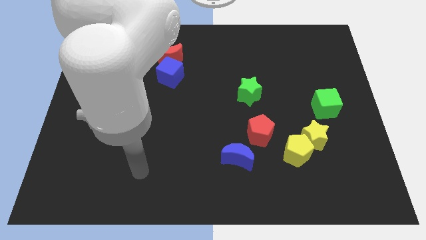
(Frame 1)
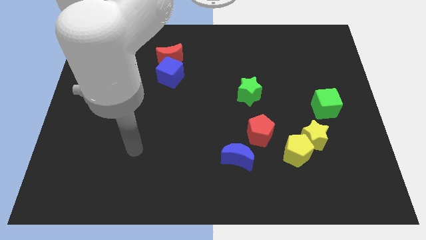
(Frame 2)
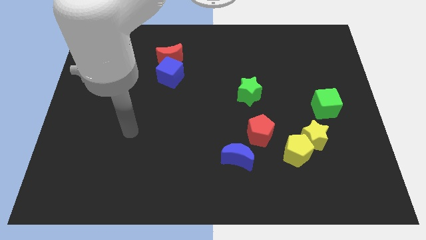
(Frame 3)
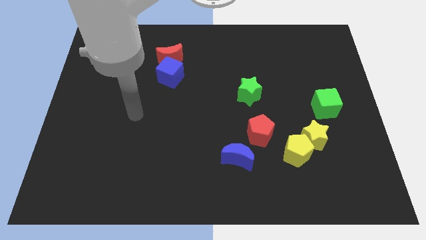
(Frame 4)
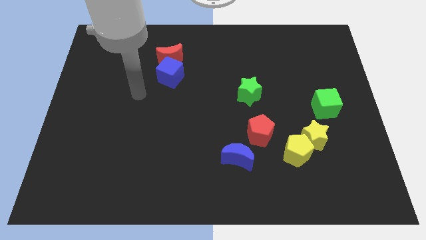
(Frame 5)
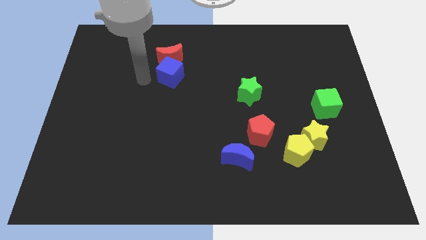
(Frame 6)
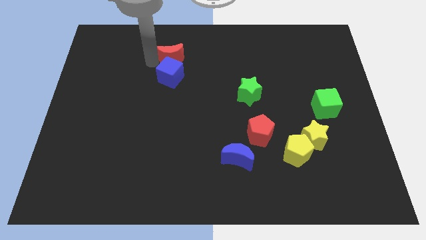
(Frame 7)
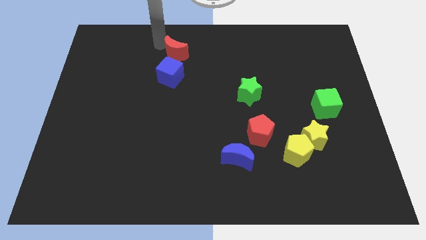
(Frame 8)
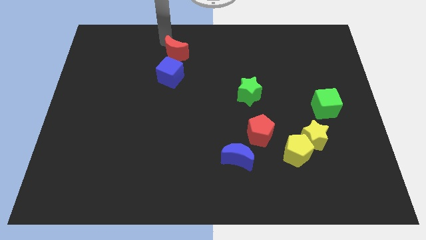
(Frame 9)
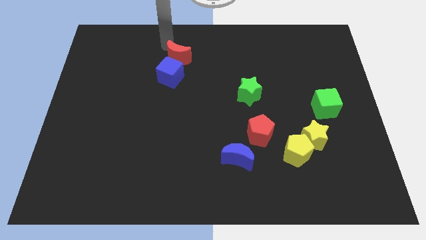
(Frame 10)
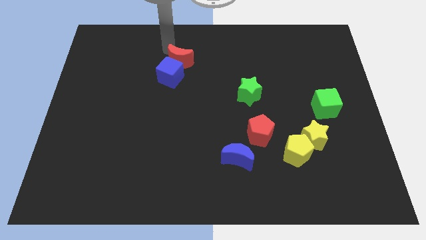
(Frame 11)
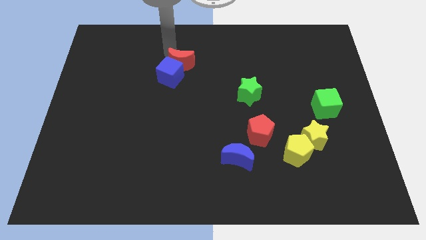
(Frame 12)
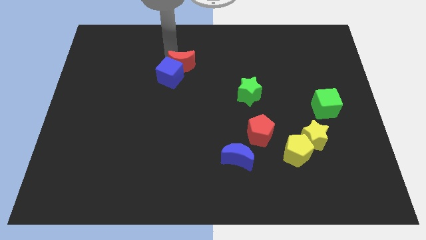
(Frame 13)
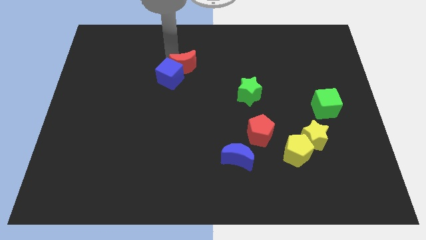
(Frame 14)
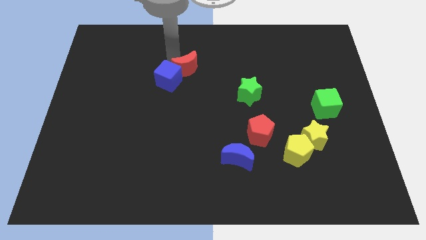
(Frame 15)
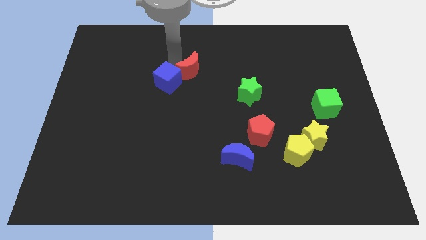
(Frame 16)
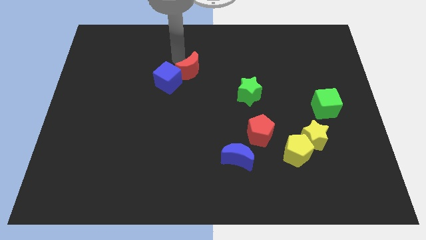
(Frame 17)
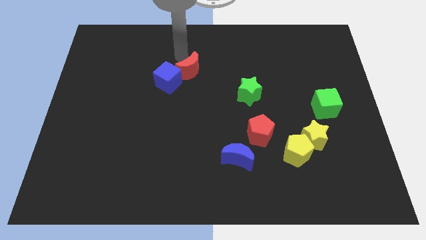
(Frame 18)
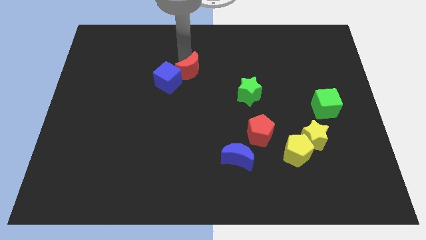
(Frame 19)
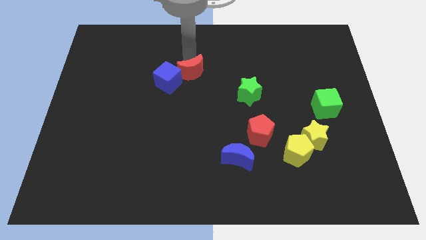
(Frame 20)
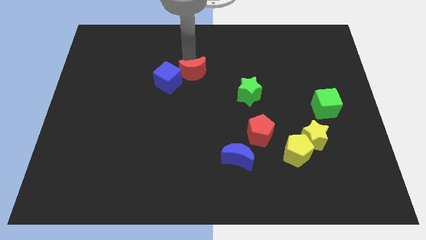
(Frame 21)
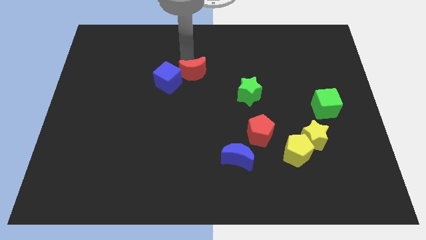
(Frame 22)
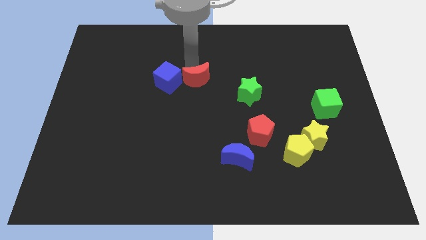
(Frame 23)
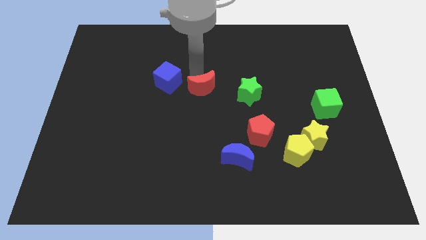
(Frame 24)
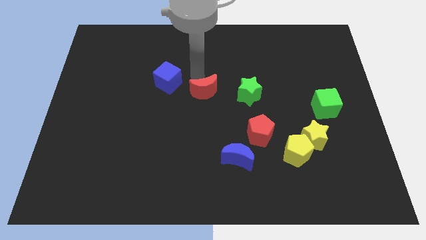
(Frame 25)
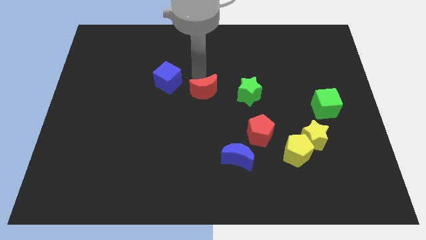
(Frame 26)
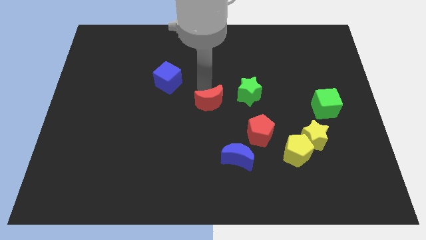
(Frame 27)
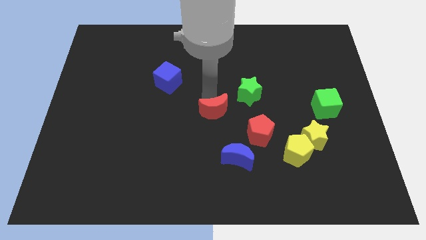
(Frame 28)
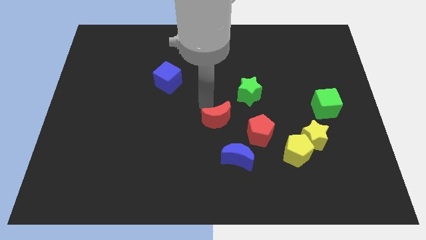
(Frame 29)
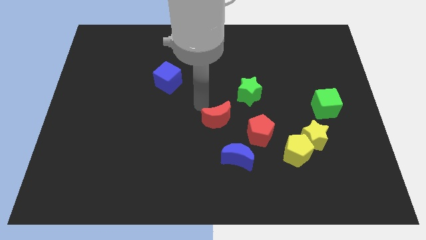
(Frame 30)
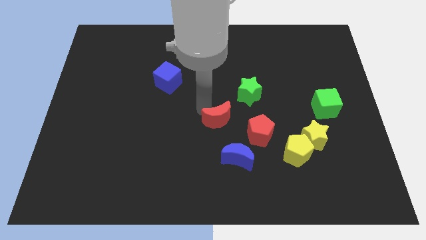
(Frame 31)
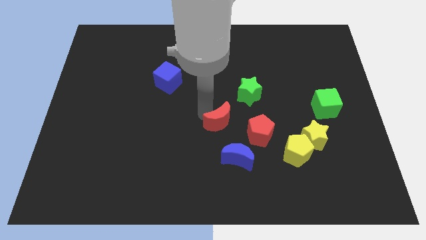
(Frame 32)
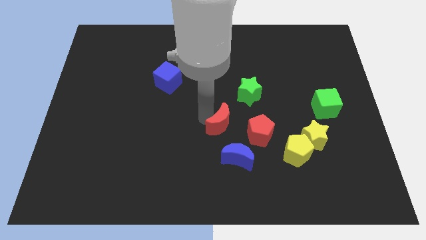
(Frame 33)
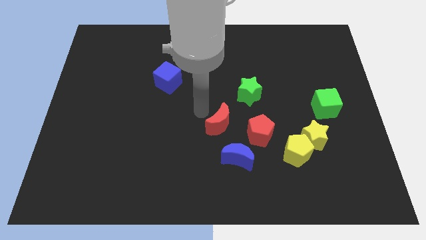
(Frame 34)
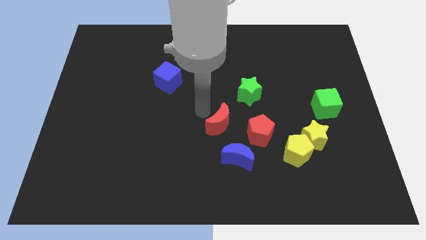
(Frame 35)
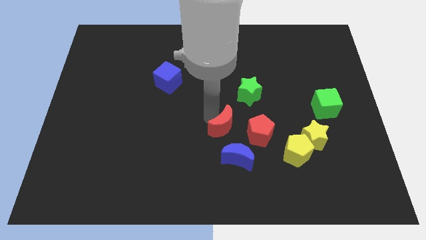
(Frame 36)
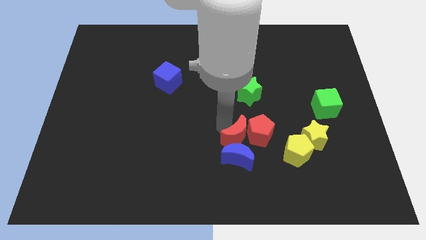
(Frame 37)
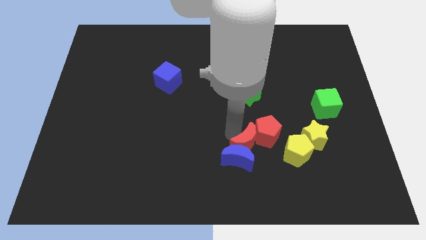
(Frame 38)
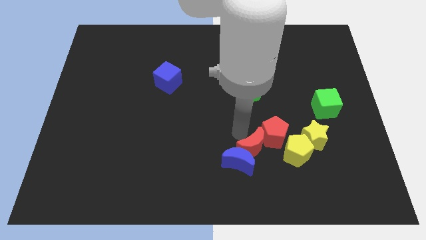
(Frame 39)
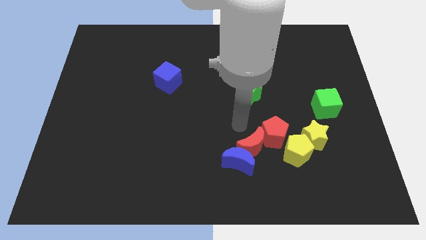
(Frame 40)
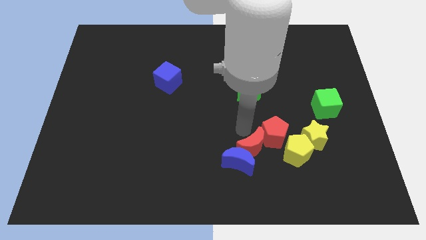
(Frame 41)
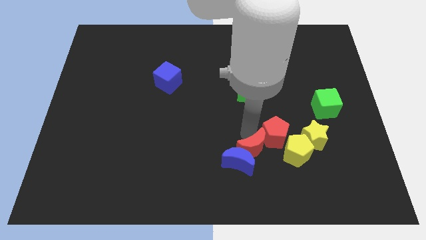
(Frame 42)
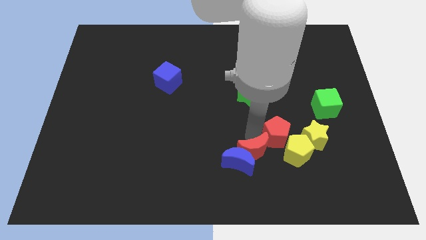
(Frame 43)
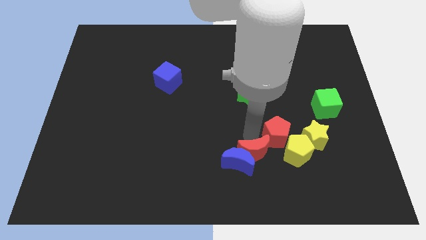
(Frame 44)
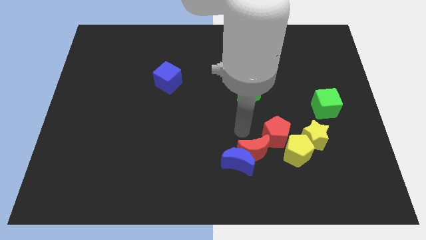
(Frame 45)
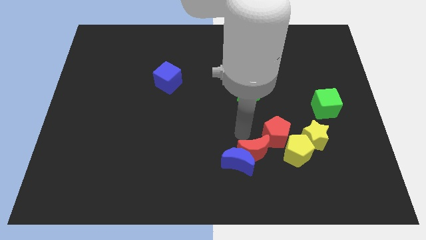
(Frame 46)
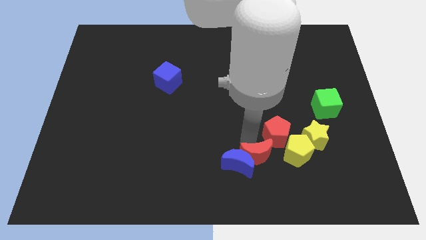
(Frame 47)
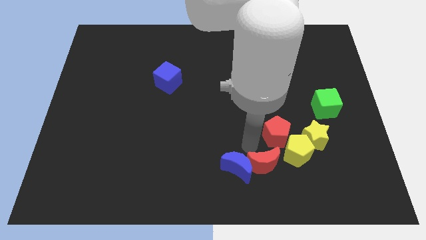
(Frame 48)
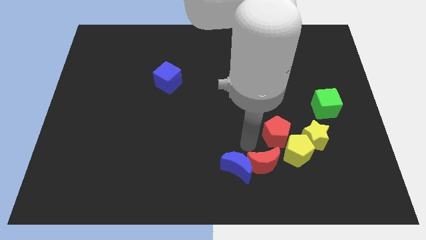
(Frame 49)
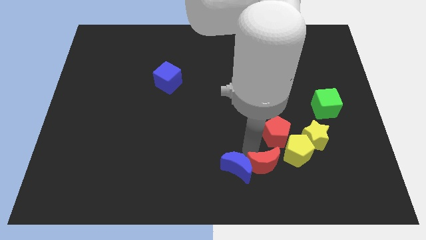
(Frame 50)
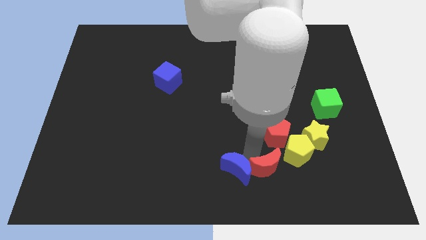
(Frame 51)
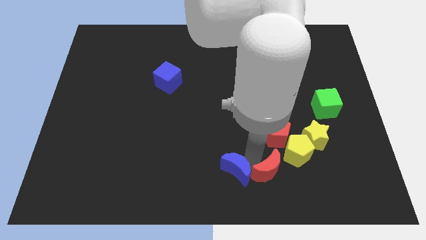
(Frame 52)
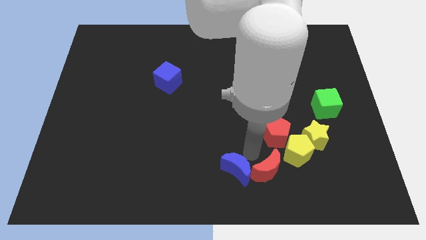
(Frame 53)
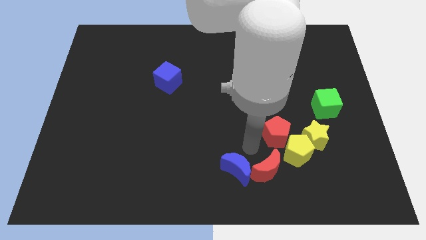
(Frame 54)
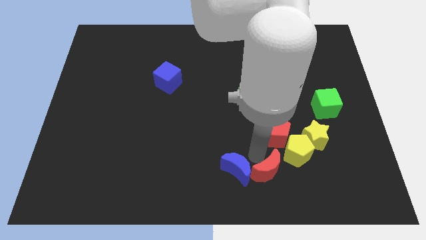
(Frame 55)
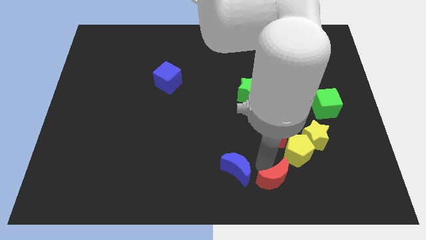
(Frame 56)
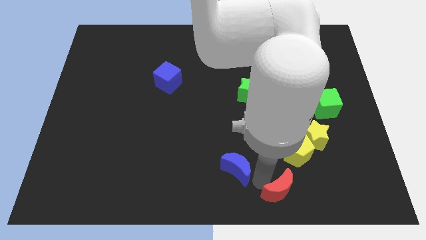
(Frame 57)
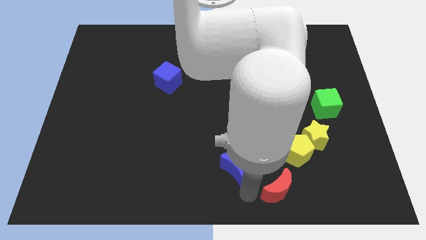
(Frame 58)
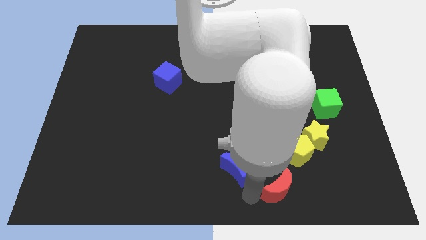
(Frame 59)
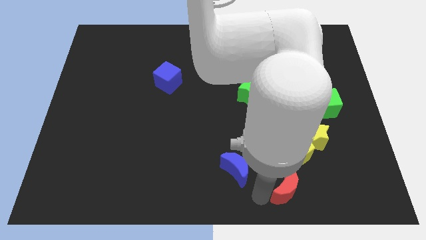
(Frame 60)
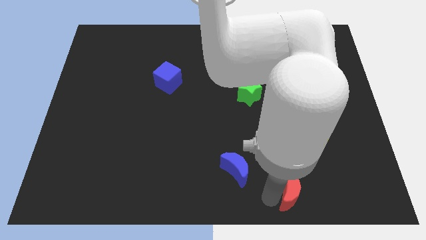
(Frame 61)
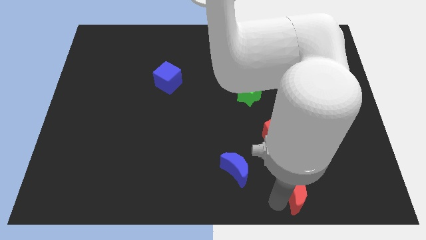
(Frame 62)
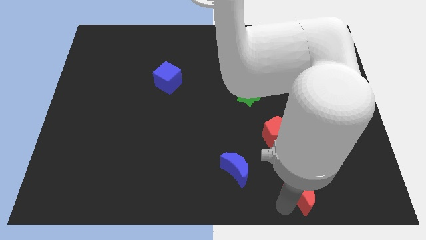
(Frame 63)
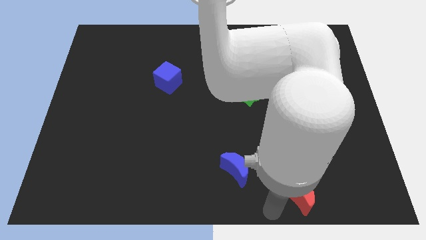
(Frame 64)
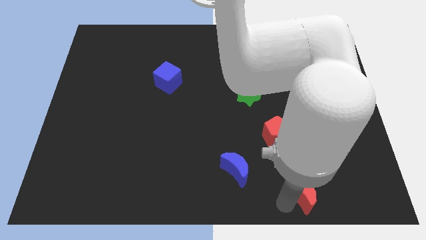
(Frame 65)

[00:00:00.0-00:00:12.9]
move the red moon to the bottom of the yellow star

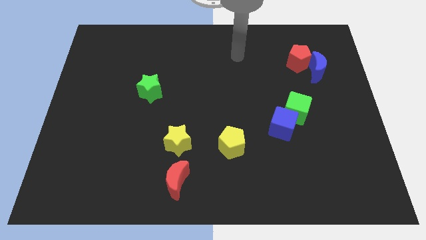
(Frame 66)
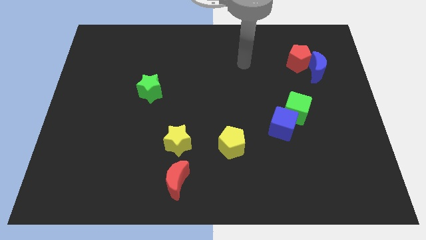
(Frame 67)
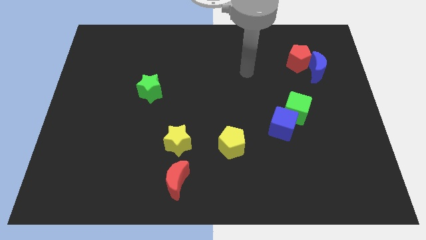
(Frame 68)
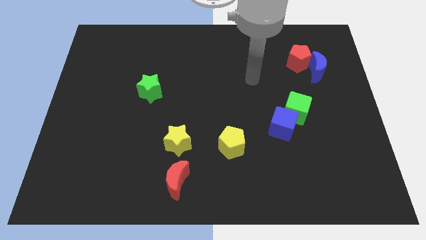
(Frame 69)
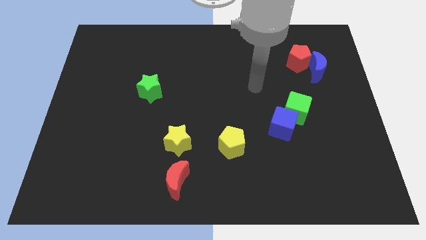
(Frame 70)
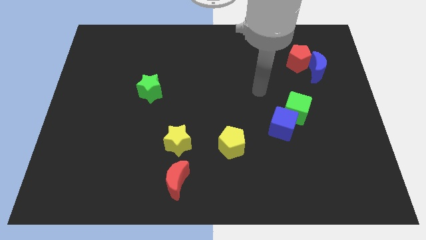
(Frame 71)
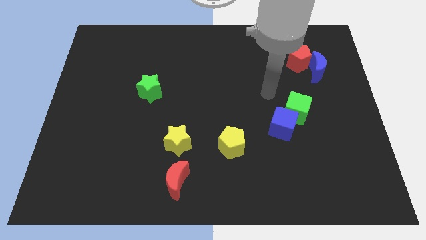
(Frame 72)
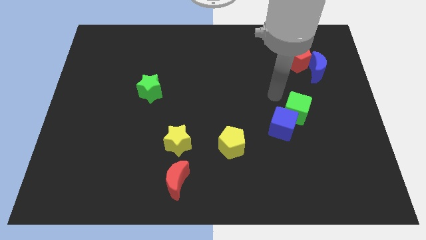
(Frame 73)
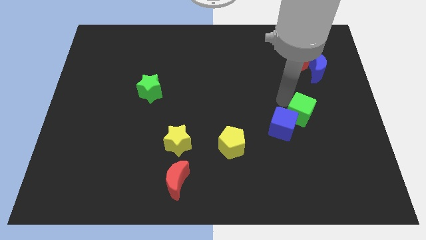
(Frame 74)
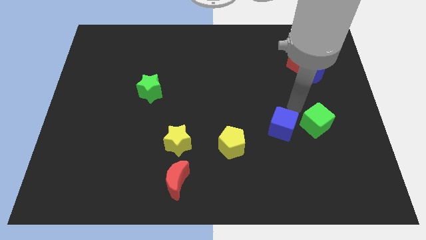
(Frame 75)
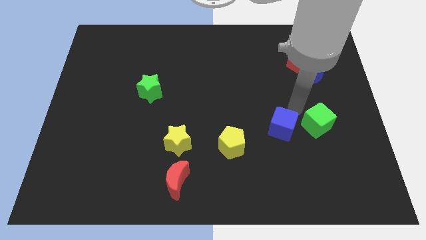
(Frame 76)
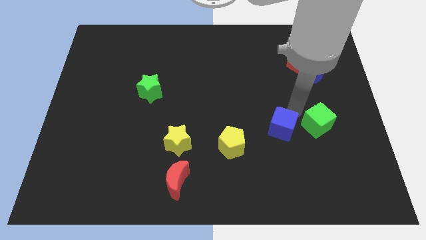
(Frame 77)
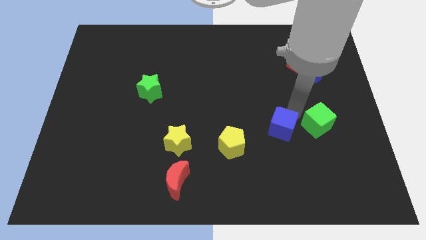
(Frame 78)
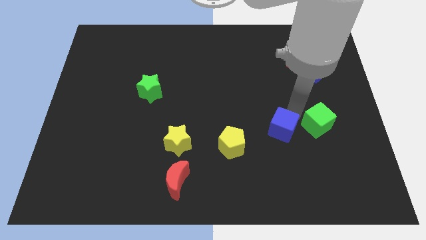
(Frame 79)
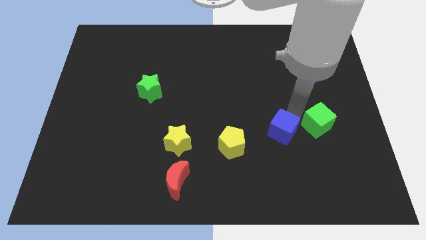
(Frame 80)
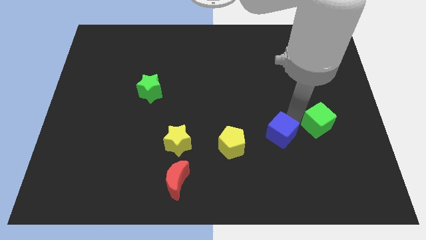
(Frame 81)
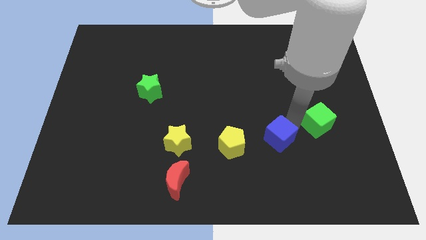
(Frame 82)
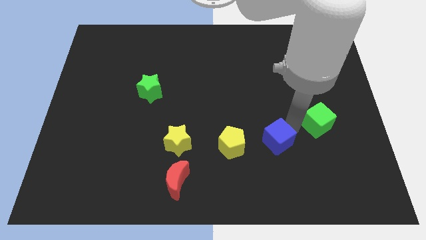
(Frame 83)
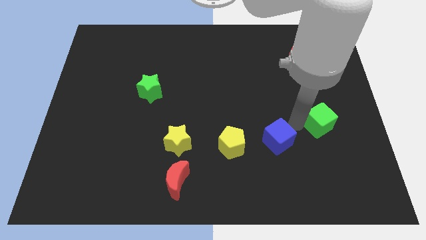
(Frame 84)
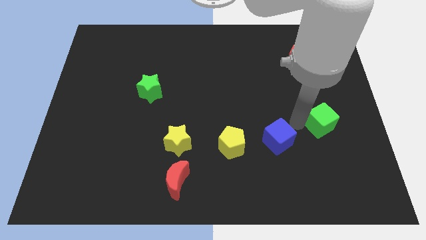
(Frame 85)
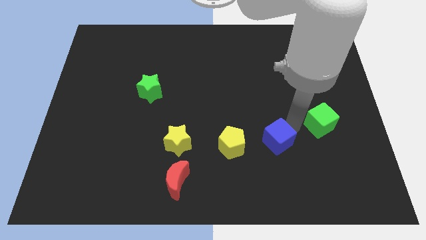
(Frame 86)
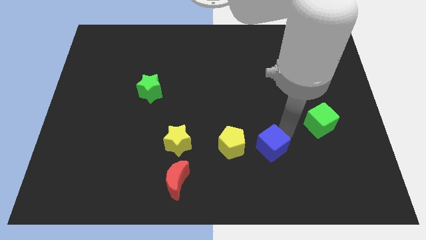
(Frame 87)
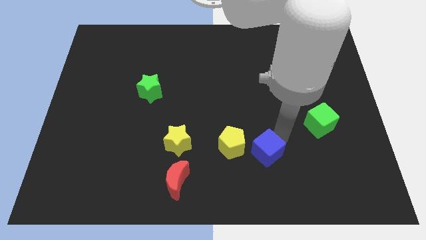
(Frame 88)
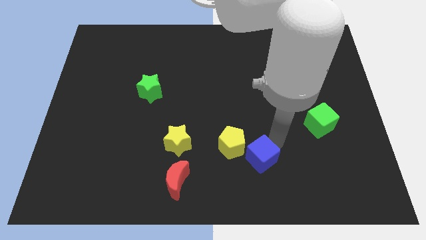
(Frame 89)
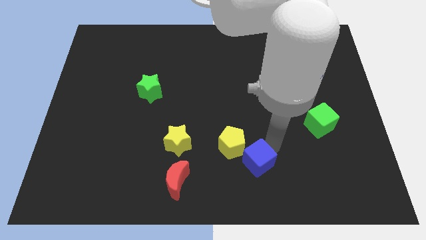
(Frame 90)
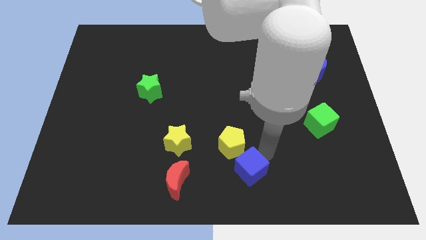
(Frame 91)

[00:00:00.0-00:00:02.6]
slide the blue cube to the right of the red moon
